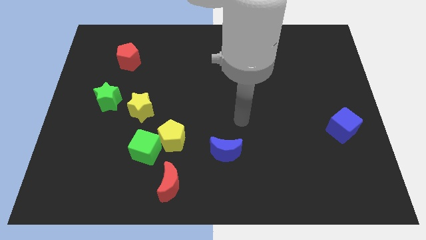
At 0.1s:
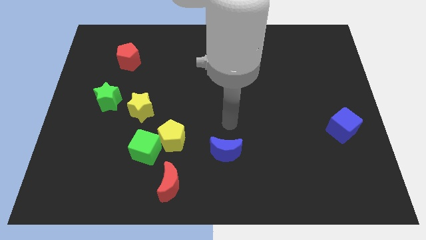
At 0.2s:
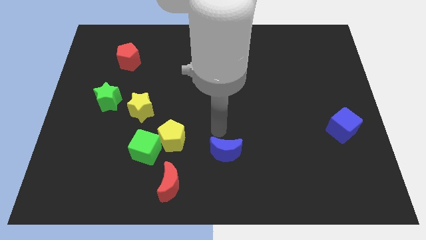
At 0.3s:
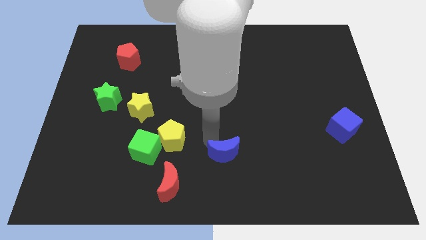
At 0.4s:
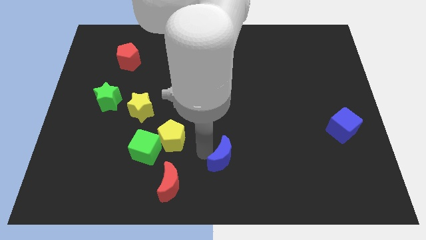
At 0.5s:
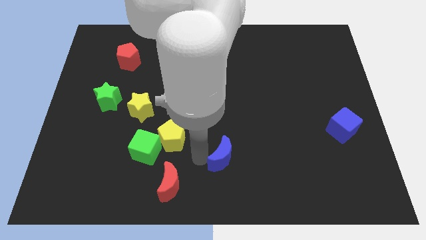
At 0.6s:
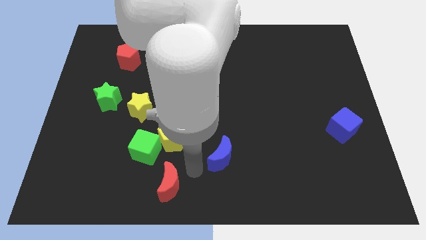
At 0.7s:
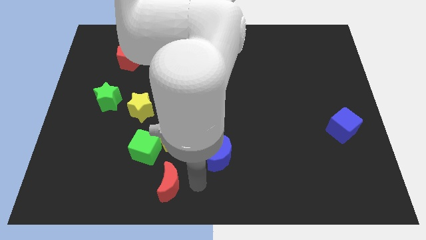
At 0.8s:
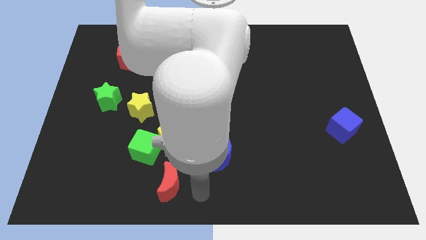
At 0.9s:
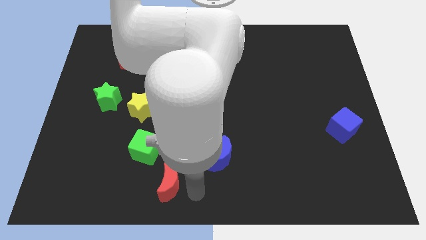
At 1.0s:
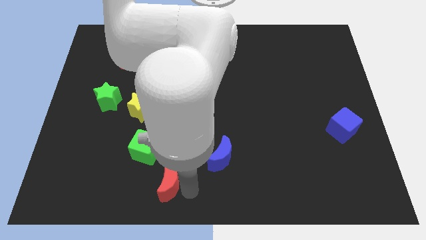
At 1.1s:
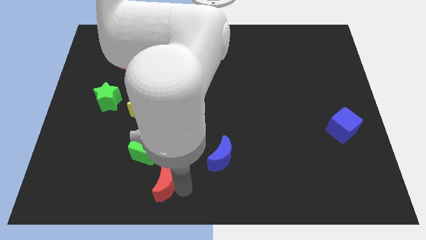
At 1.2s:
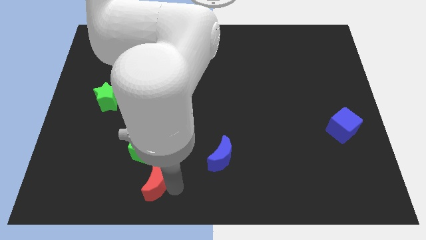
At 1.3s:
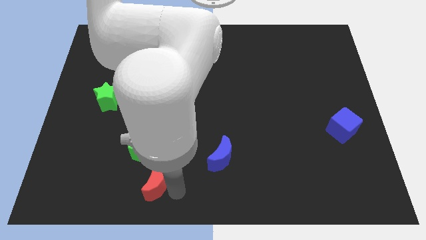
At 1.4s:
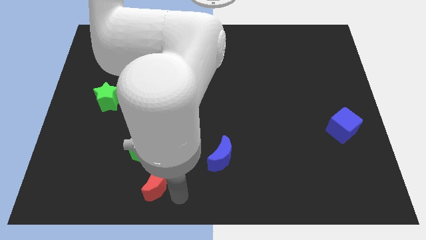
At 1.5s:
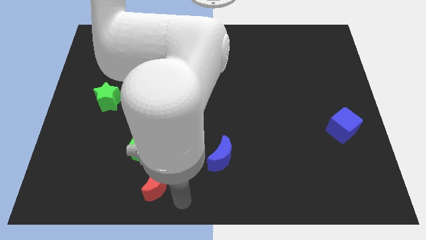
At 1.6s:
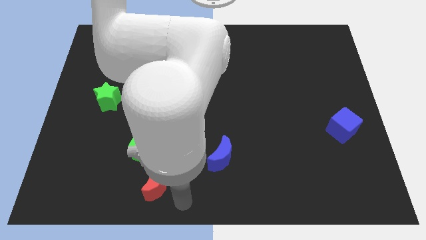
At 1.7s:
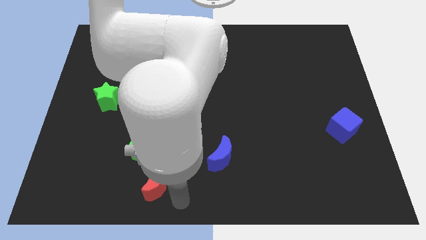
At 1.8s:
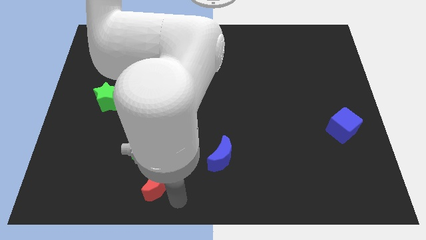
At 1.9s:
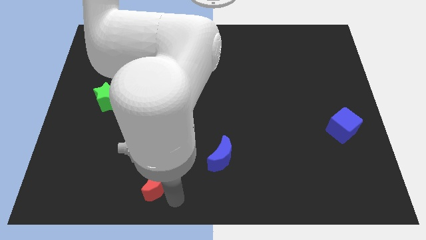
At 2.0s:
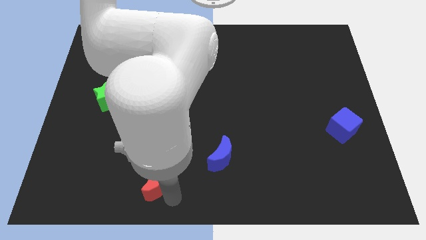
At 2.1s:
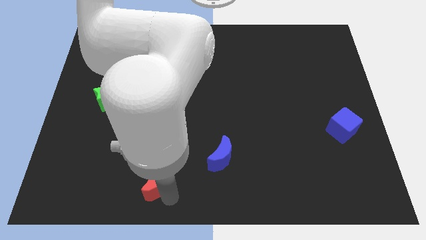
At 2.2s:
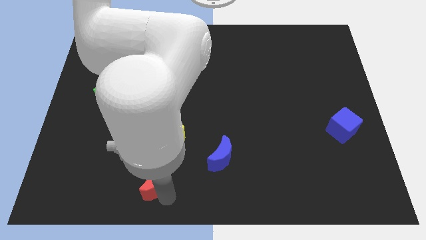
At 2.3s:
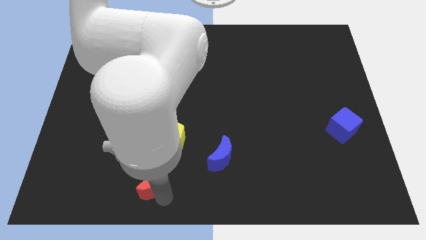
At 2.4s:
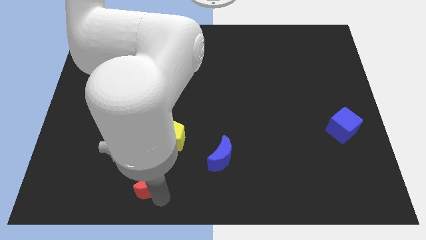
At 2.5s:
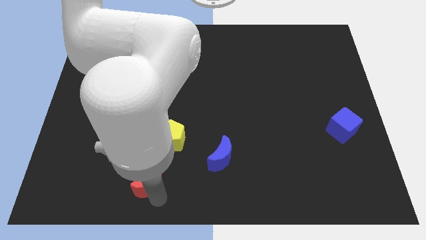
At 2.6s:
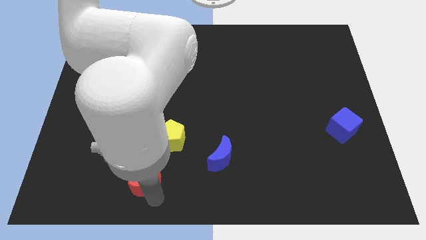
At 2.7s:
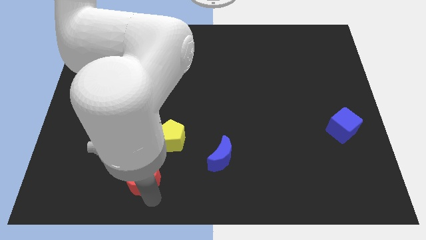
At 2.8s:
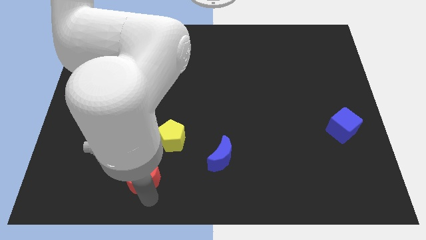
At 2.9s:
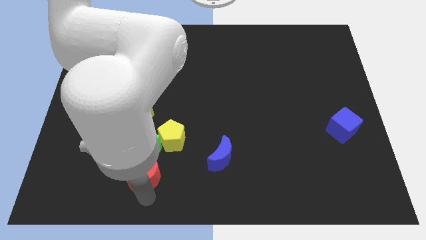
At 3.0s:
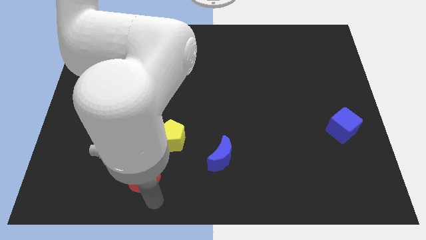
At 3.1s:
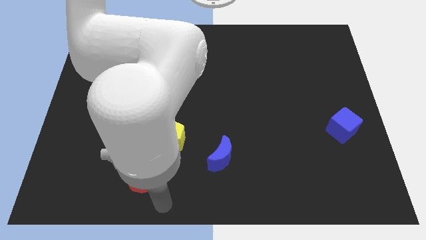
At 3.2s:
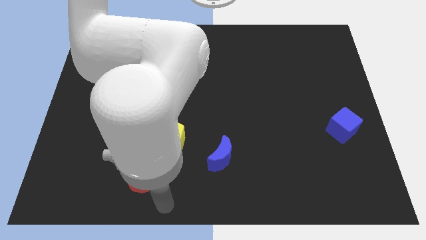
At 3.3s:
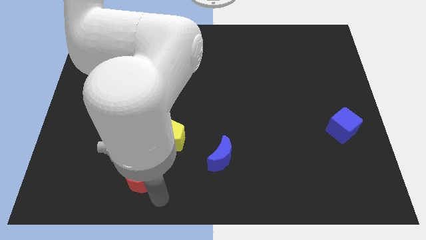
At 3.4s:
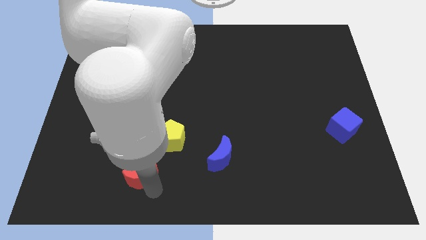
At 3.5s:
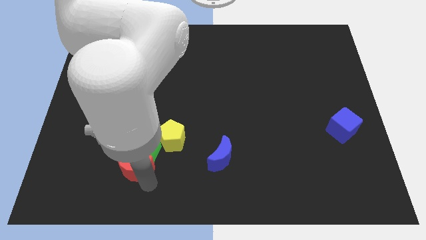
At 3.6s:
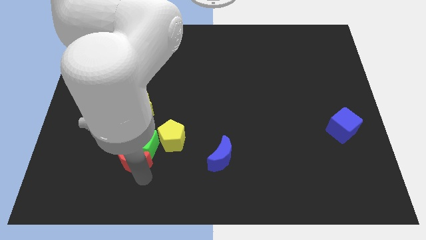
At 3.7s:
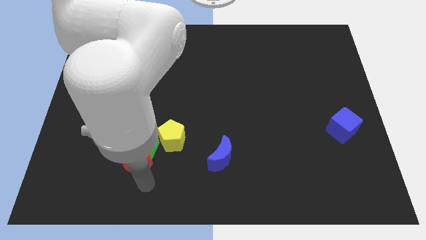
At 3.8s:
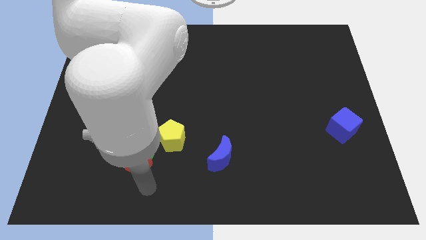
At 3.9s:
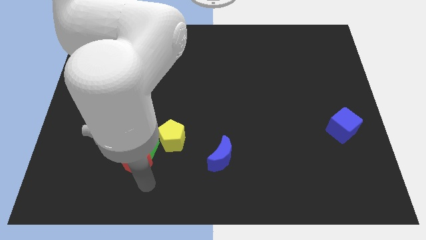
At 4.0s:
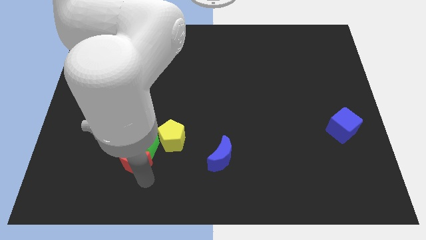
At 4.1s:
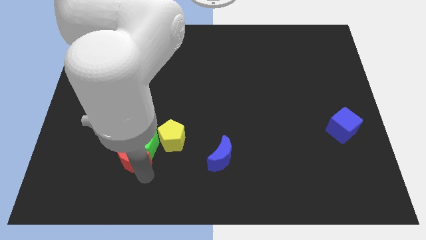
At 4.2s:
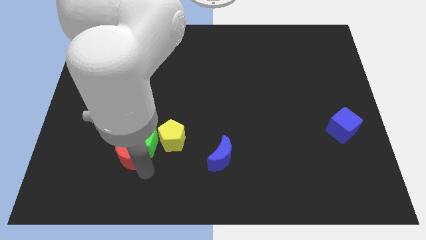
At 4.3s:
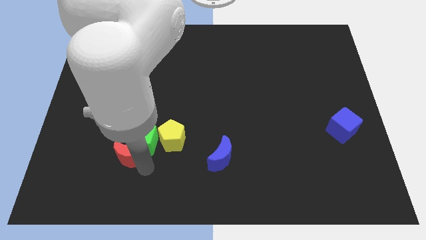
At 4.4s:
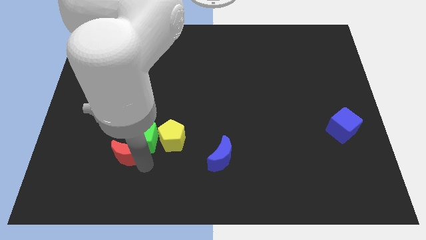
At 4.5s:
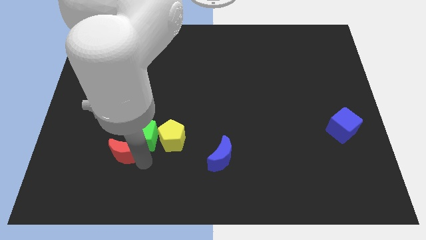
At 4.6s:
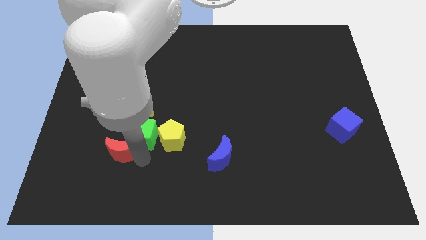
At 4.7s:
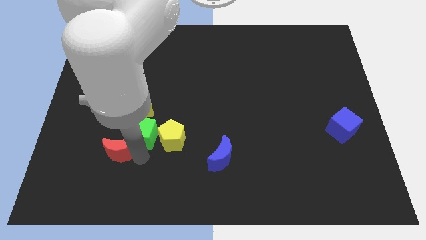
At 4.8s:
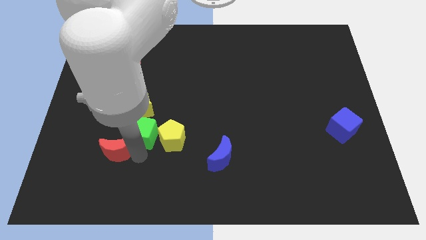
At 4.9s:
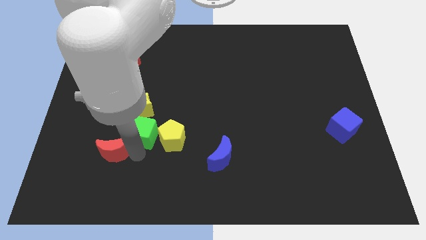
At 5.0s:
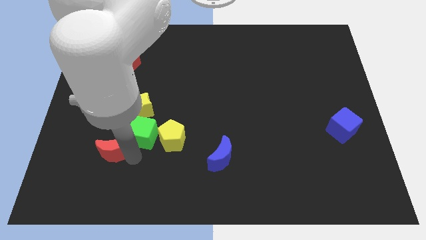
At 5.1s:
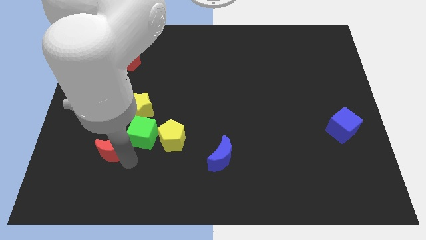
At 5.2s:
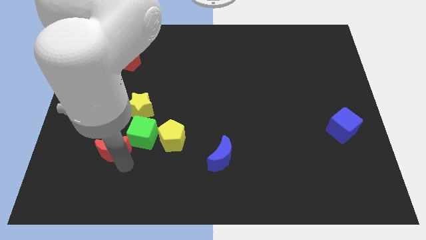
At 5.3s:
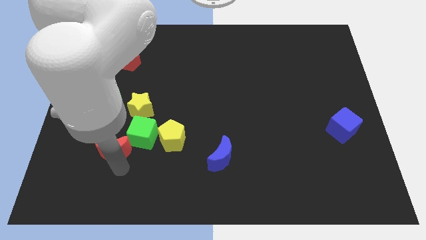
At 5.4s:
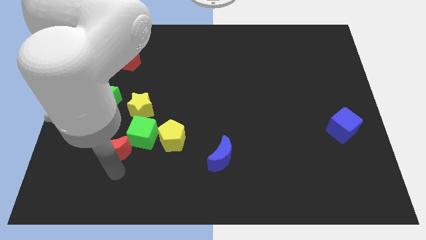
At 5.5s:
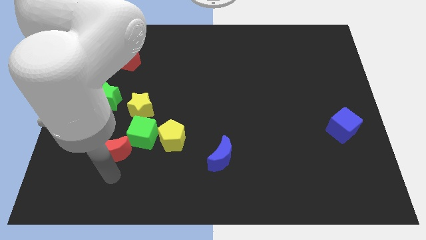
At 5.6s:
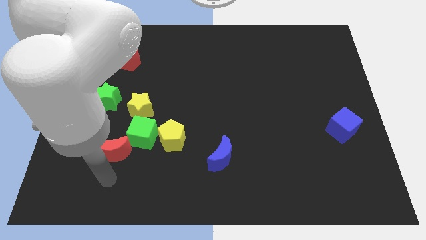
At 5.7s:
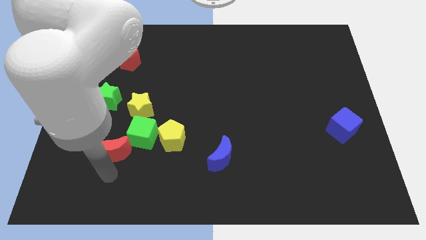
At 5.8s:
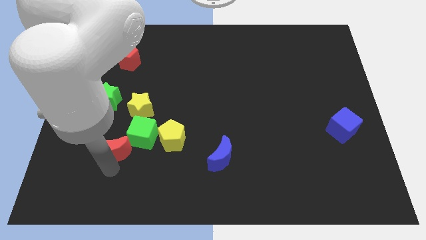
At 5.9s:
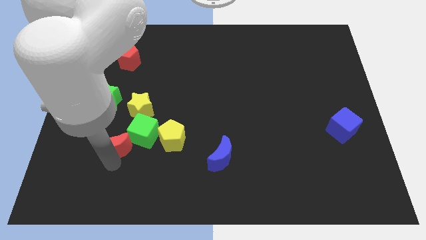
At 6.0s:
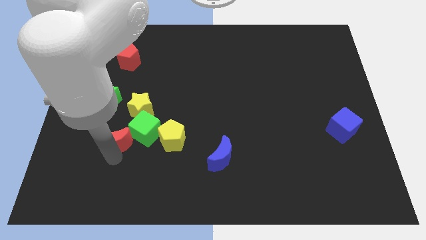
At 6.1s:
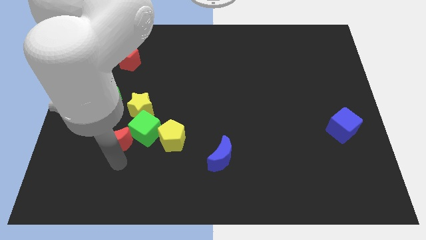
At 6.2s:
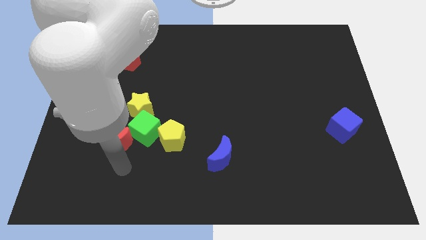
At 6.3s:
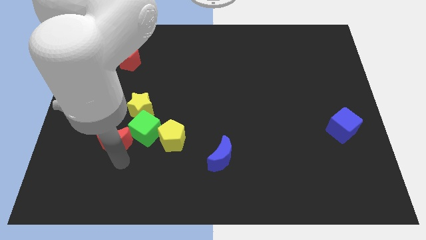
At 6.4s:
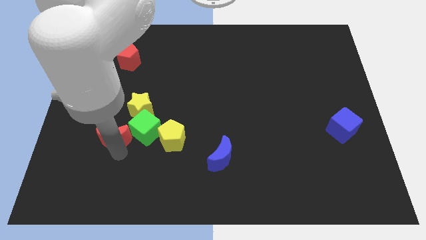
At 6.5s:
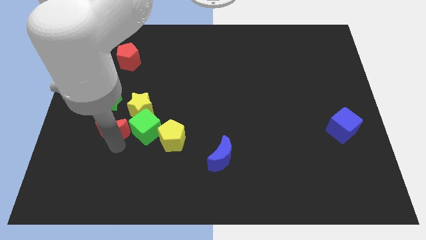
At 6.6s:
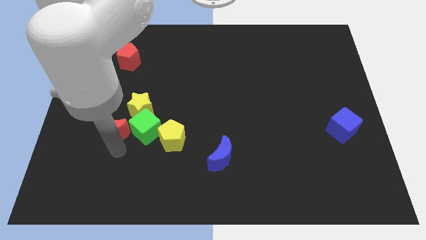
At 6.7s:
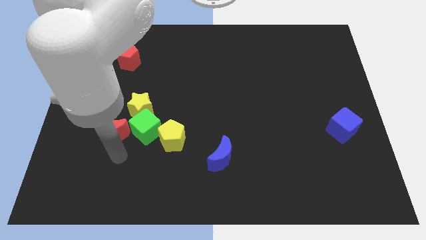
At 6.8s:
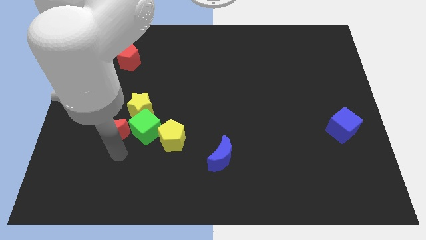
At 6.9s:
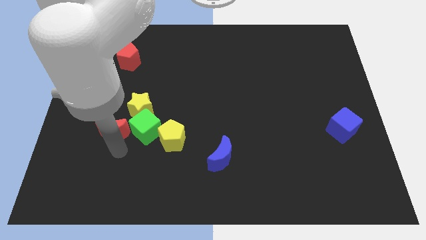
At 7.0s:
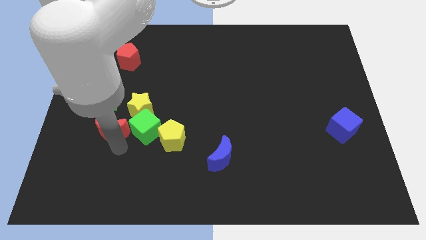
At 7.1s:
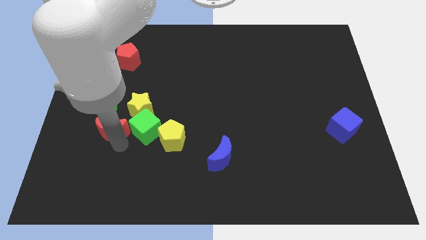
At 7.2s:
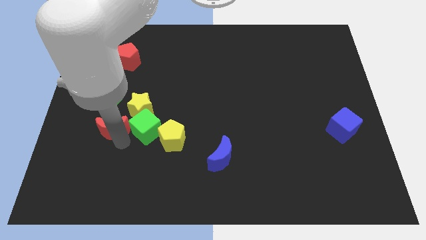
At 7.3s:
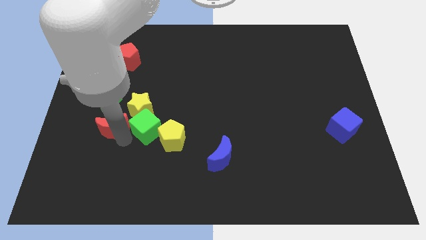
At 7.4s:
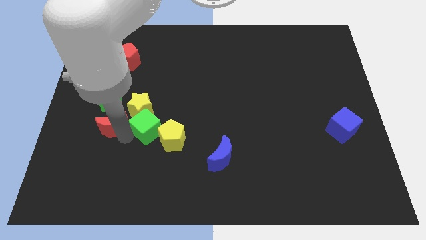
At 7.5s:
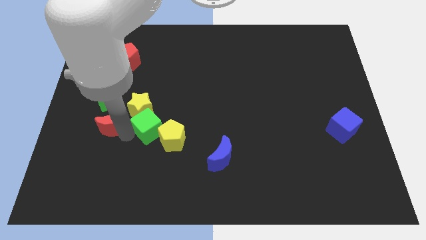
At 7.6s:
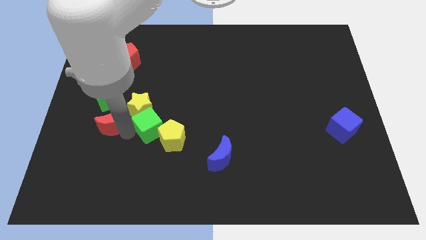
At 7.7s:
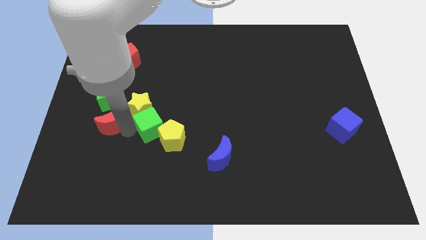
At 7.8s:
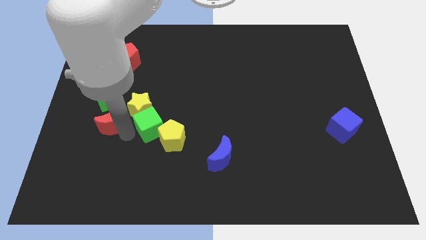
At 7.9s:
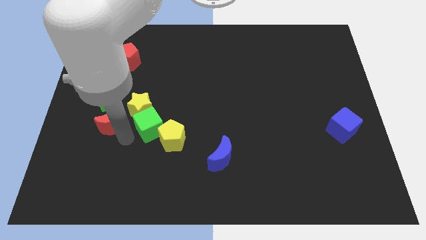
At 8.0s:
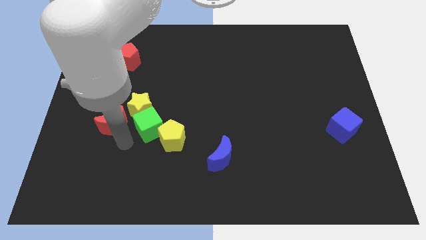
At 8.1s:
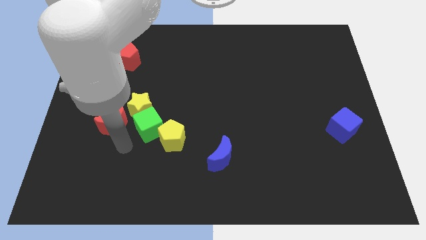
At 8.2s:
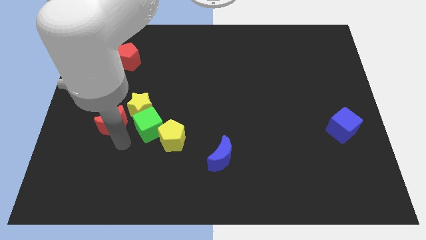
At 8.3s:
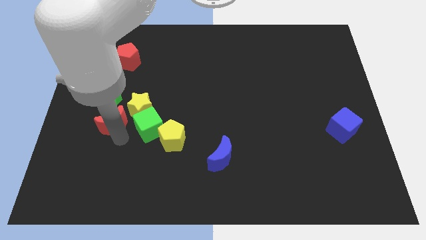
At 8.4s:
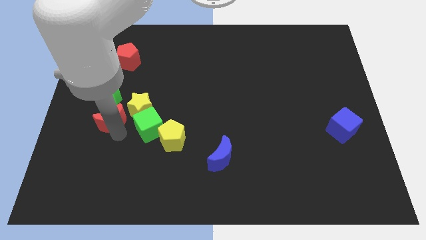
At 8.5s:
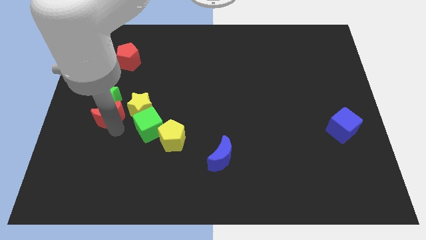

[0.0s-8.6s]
put the red moon close to the green star
